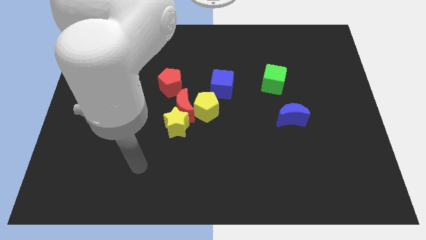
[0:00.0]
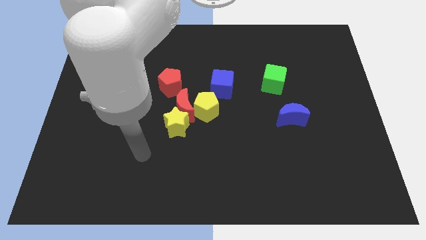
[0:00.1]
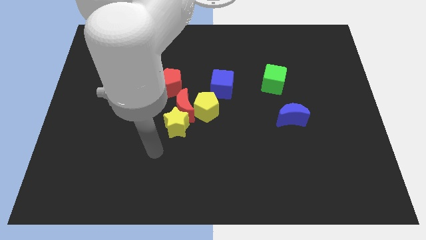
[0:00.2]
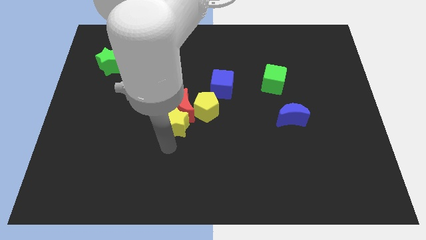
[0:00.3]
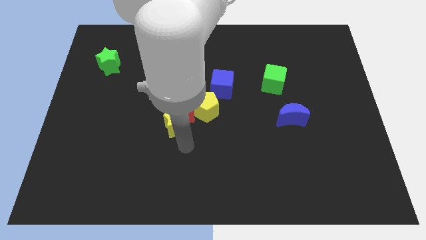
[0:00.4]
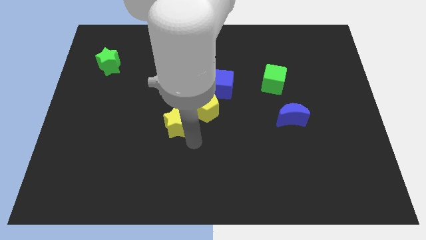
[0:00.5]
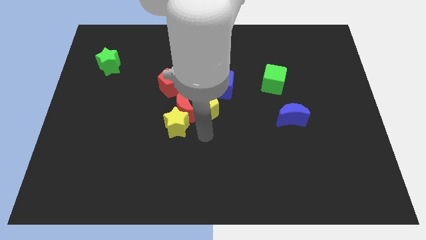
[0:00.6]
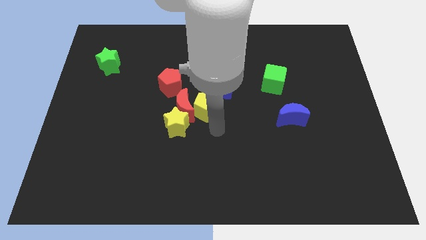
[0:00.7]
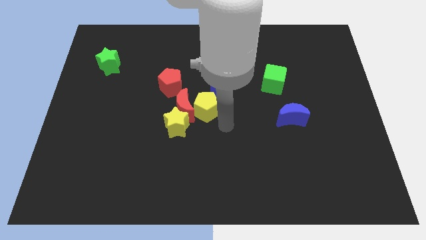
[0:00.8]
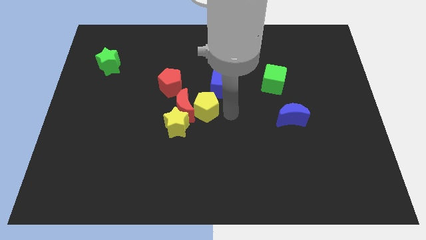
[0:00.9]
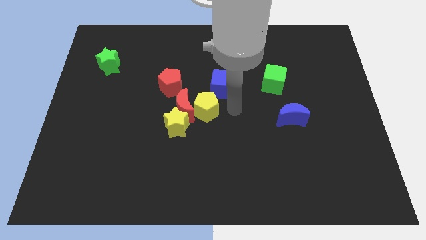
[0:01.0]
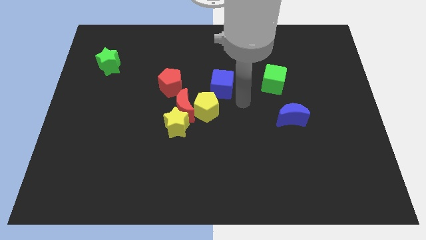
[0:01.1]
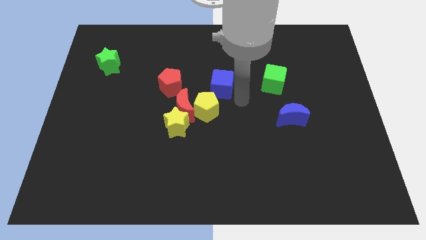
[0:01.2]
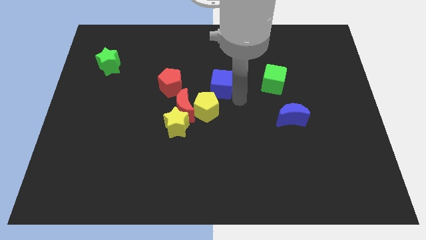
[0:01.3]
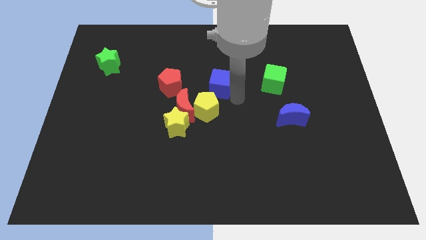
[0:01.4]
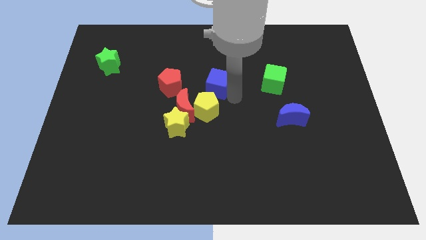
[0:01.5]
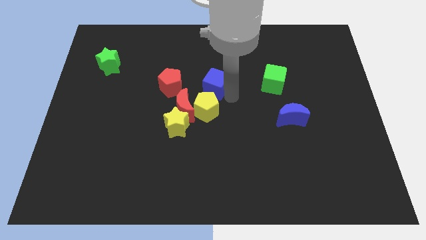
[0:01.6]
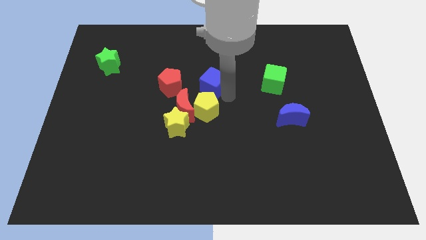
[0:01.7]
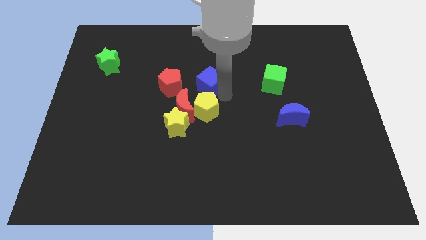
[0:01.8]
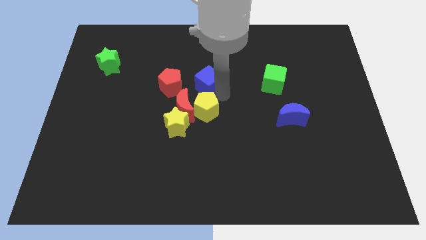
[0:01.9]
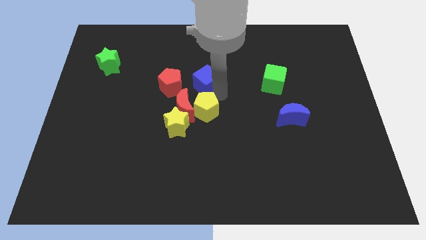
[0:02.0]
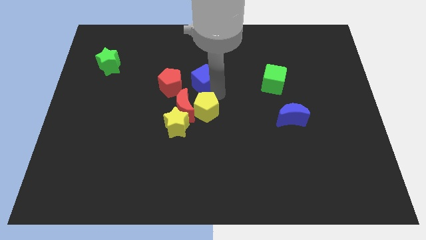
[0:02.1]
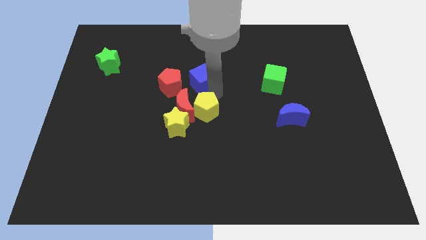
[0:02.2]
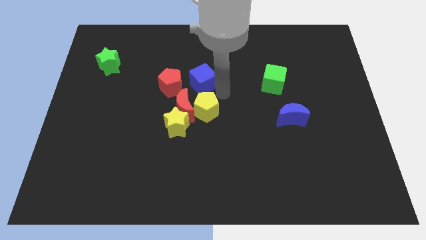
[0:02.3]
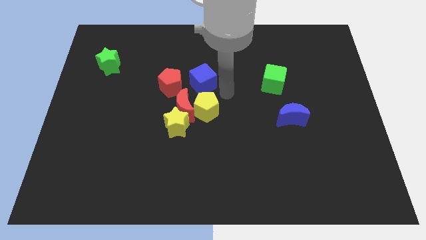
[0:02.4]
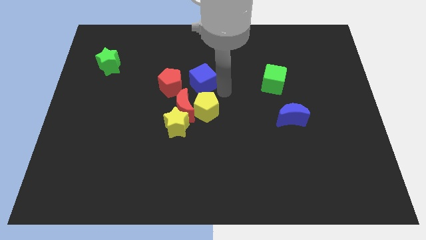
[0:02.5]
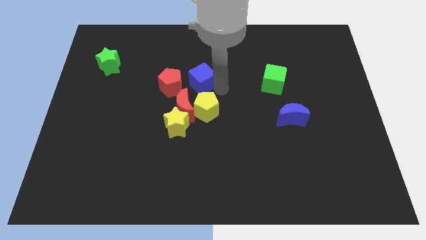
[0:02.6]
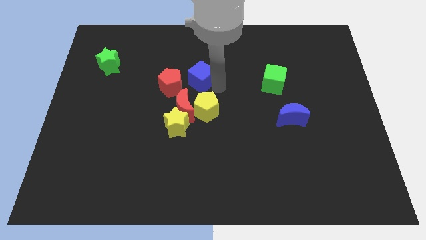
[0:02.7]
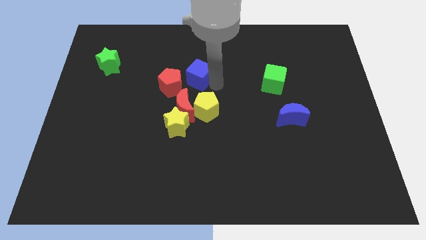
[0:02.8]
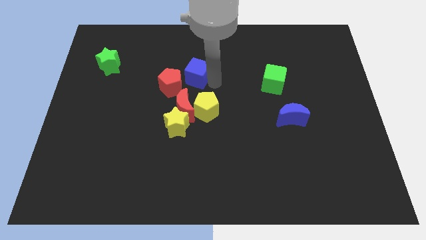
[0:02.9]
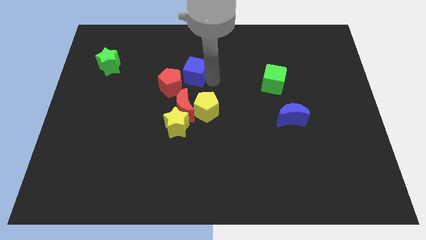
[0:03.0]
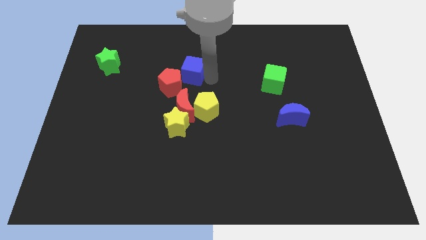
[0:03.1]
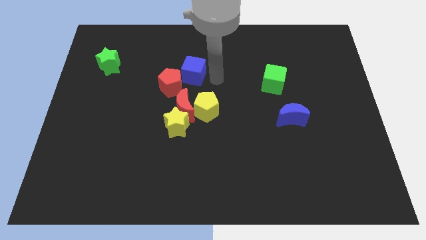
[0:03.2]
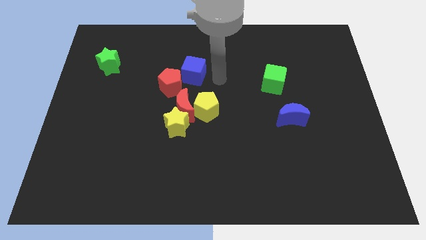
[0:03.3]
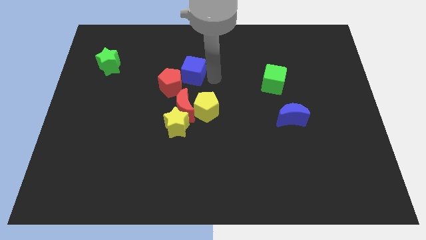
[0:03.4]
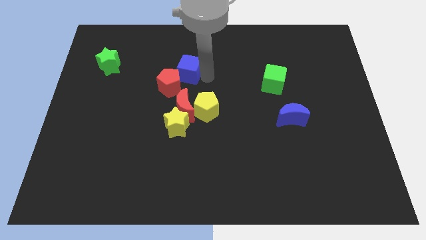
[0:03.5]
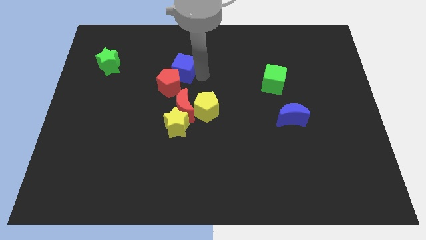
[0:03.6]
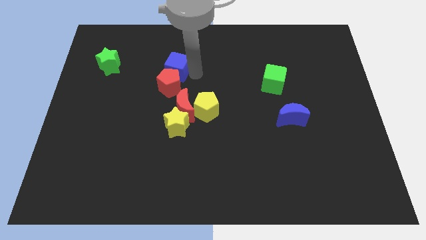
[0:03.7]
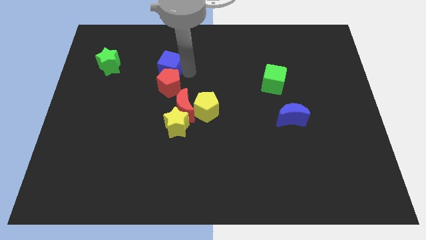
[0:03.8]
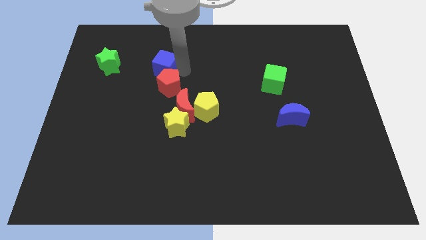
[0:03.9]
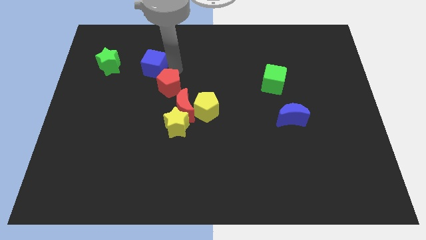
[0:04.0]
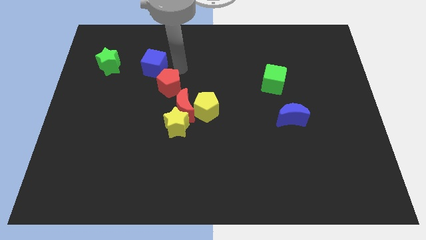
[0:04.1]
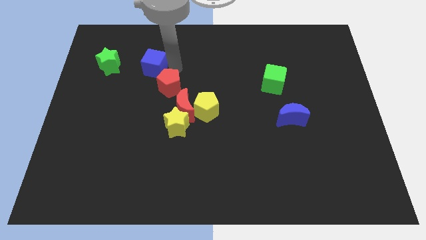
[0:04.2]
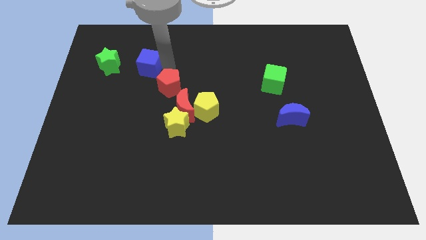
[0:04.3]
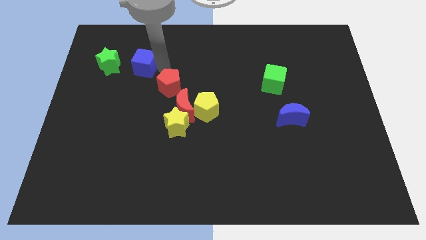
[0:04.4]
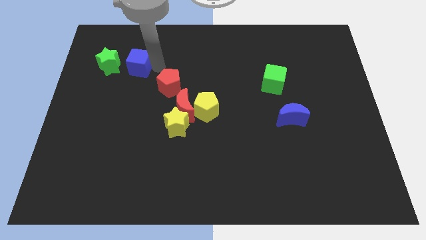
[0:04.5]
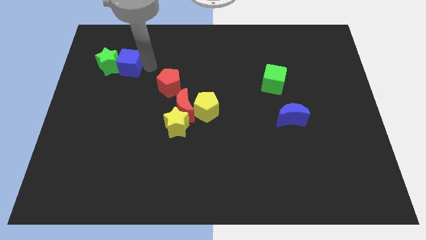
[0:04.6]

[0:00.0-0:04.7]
put the blue cube towards the green star

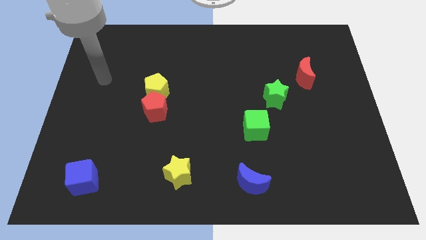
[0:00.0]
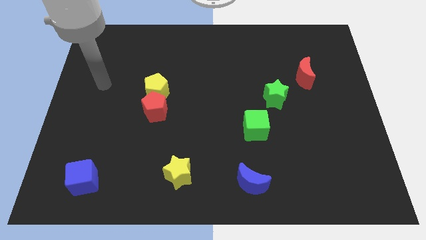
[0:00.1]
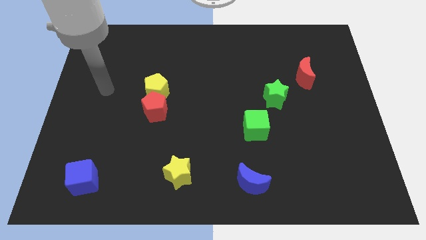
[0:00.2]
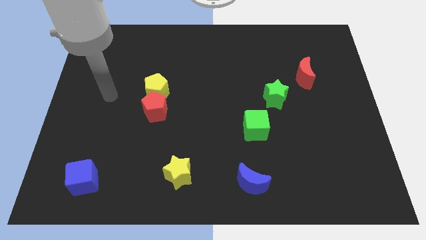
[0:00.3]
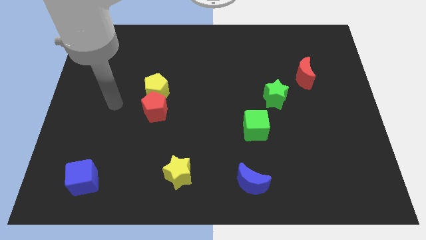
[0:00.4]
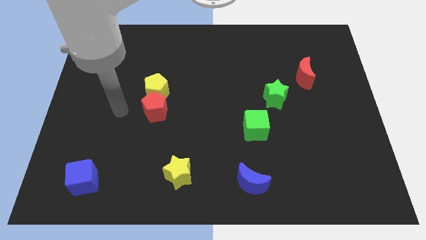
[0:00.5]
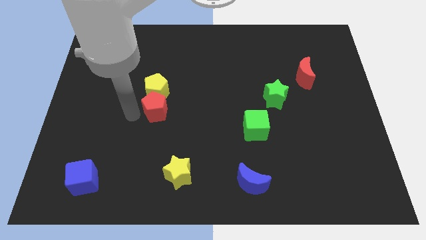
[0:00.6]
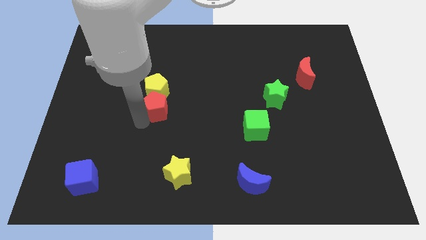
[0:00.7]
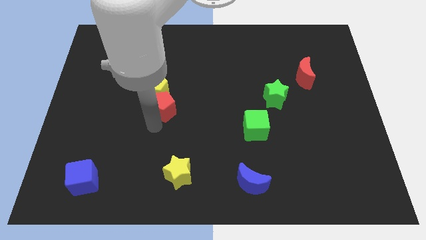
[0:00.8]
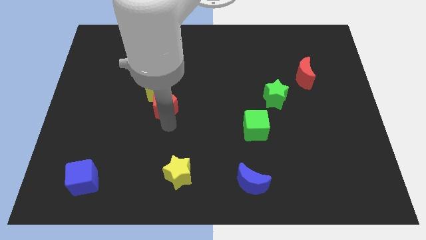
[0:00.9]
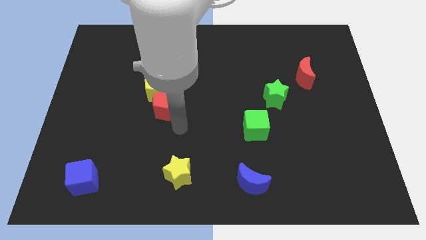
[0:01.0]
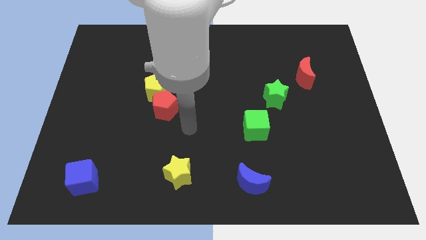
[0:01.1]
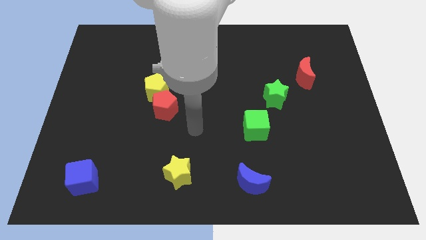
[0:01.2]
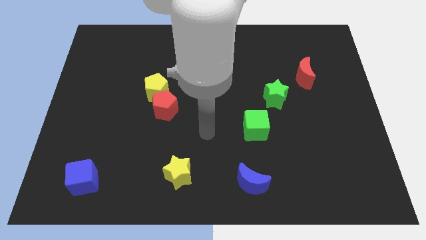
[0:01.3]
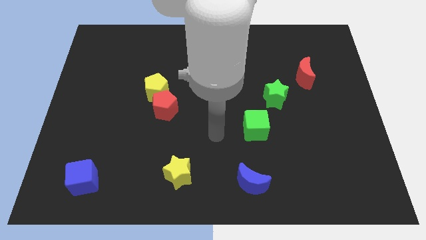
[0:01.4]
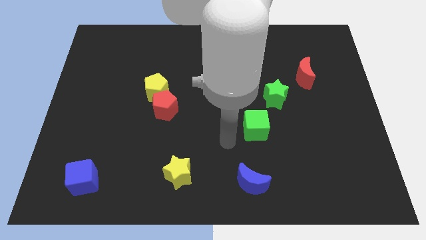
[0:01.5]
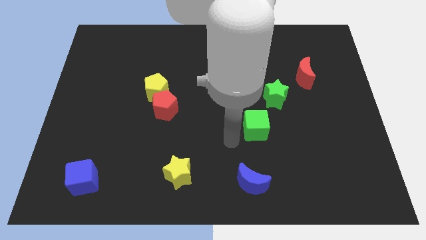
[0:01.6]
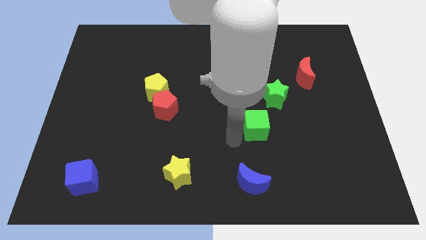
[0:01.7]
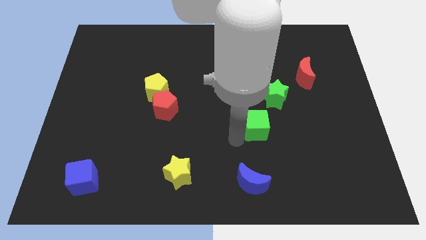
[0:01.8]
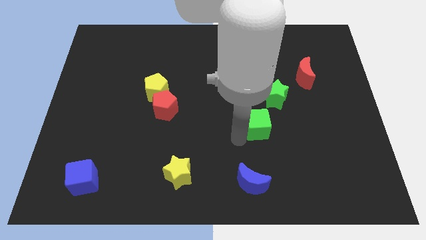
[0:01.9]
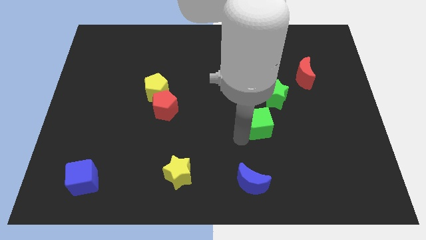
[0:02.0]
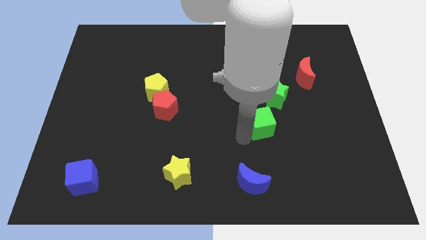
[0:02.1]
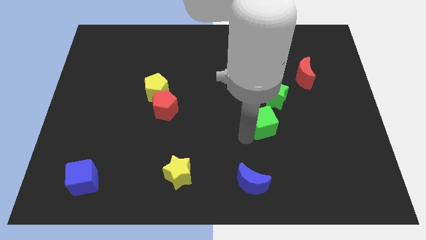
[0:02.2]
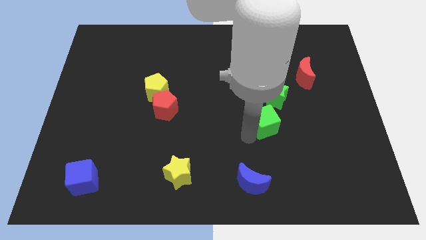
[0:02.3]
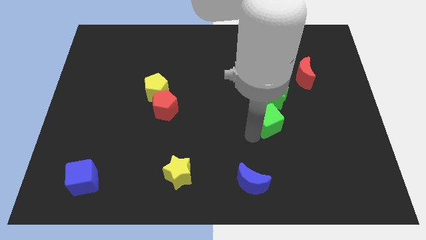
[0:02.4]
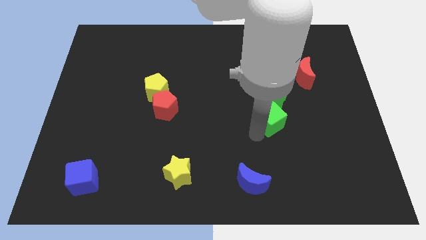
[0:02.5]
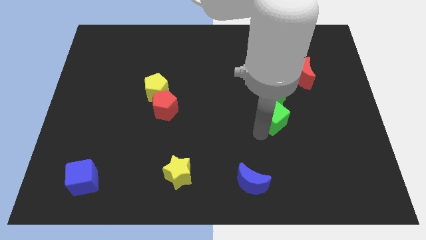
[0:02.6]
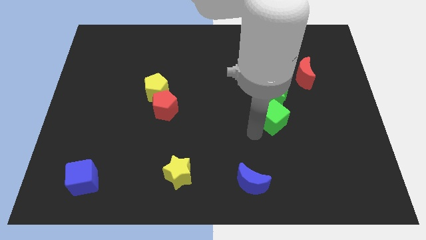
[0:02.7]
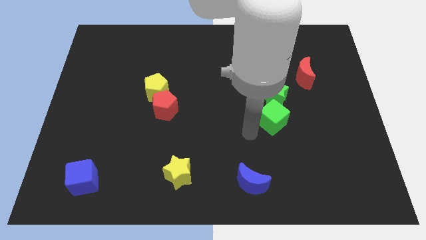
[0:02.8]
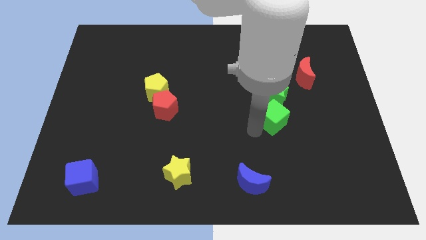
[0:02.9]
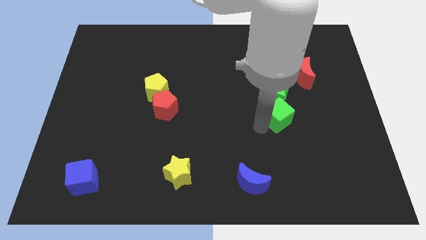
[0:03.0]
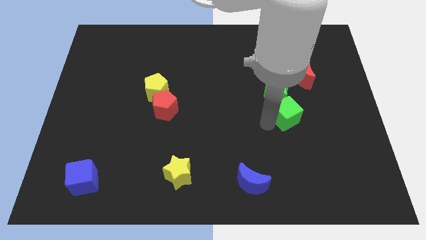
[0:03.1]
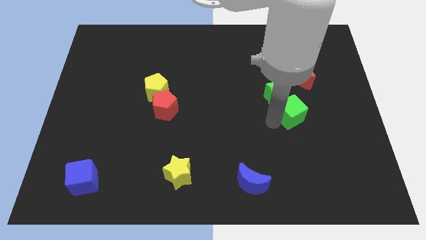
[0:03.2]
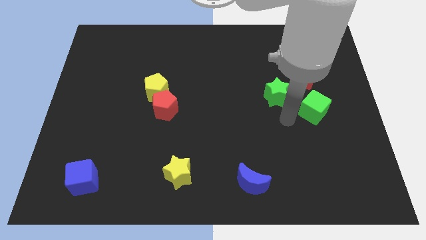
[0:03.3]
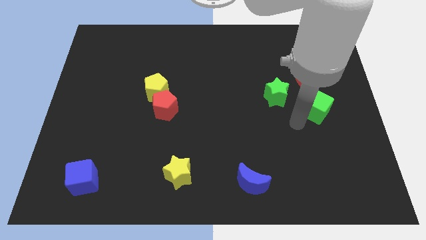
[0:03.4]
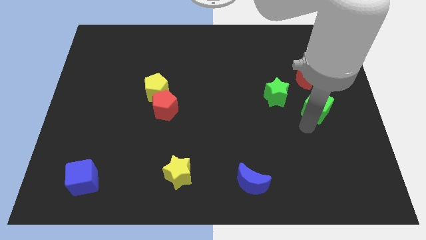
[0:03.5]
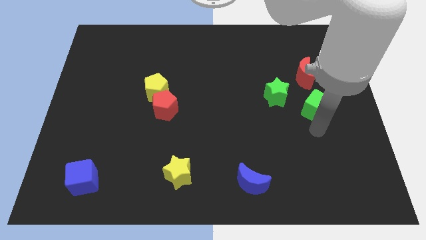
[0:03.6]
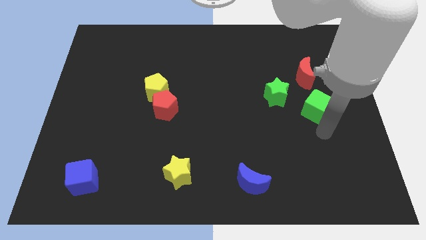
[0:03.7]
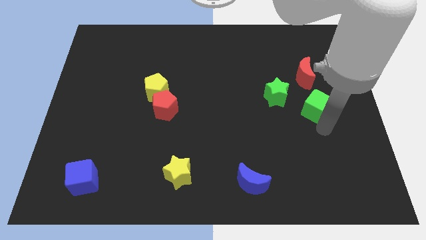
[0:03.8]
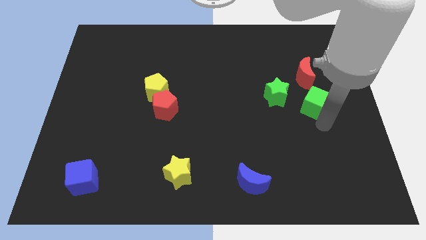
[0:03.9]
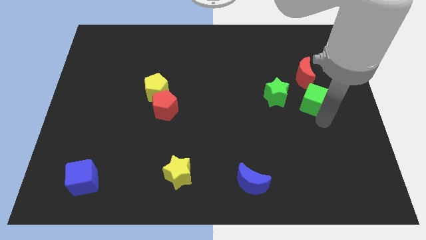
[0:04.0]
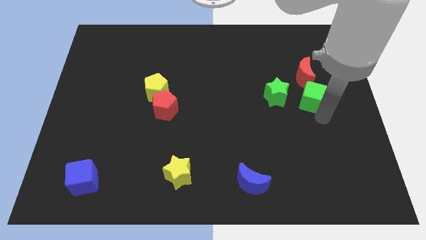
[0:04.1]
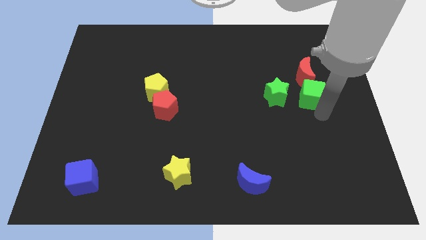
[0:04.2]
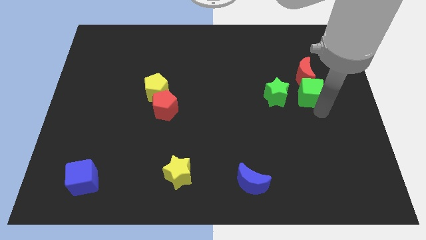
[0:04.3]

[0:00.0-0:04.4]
slide the green cube towards the red moon
